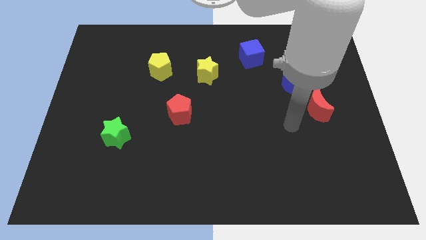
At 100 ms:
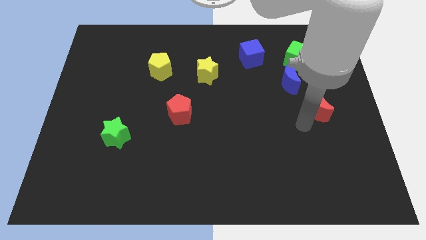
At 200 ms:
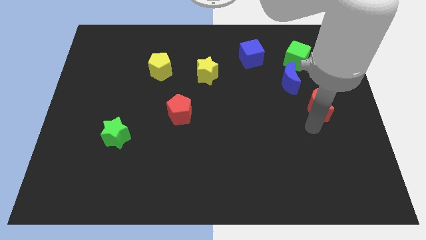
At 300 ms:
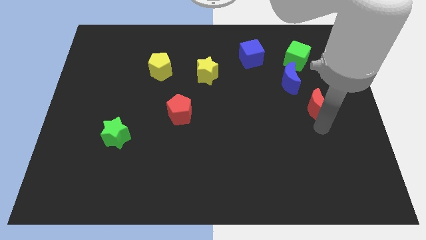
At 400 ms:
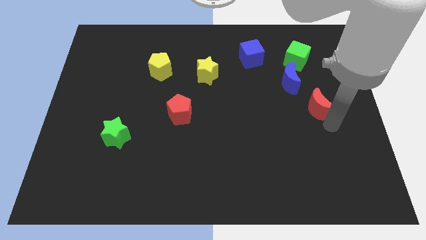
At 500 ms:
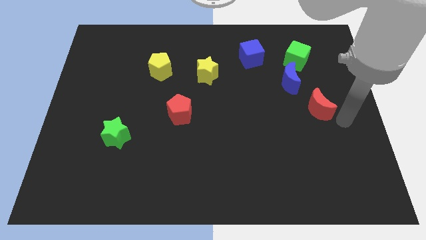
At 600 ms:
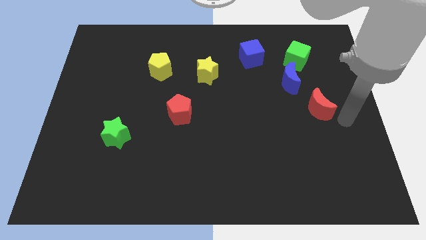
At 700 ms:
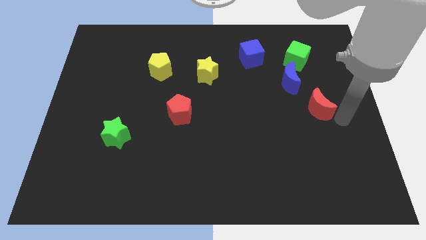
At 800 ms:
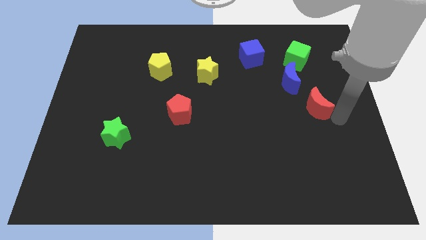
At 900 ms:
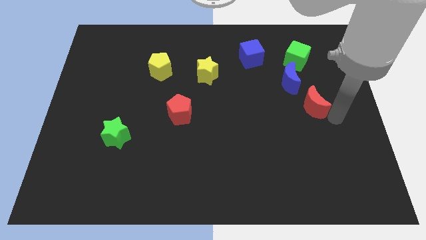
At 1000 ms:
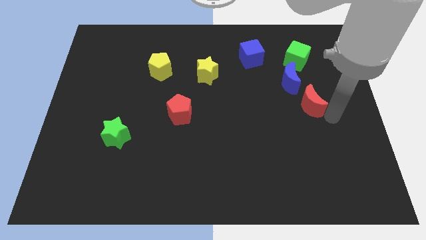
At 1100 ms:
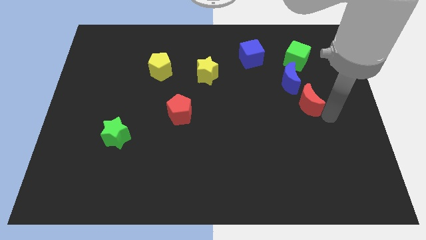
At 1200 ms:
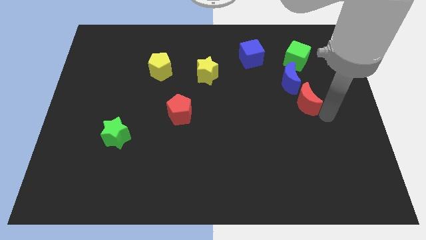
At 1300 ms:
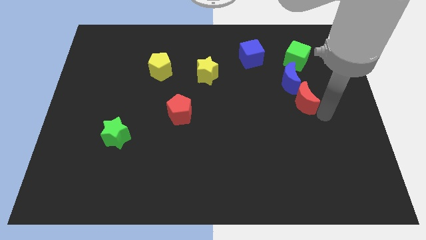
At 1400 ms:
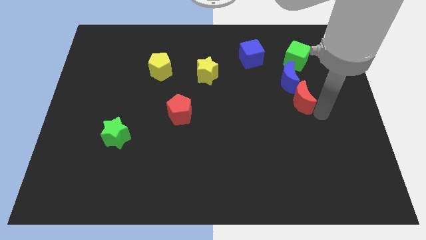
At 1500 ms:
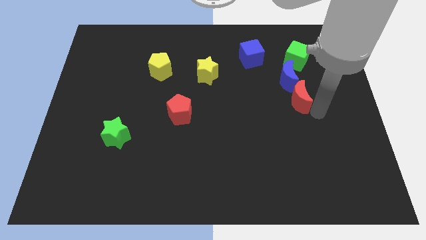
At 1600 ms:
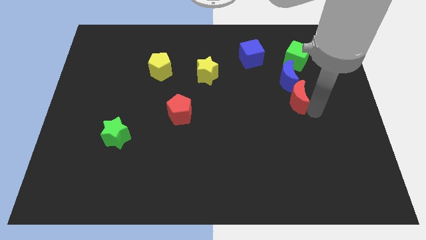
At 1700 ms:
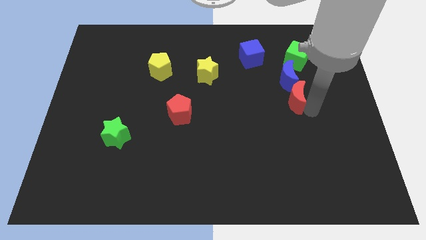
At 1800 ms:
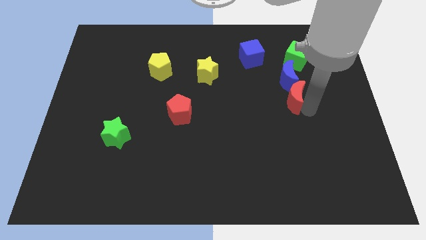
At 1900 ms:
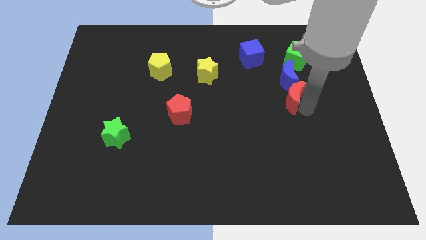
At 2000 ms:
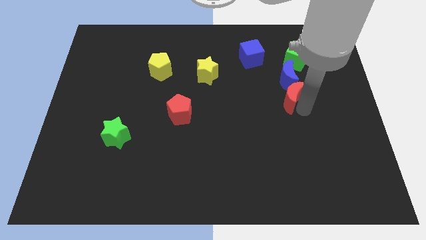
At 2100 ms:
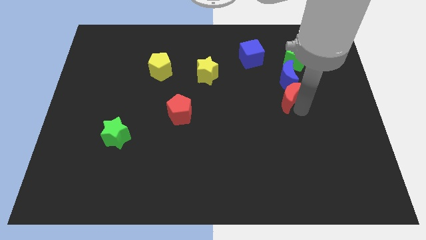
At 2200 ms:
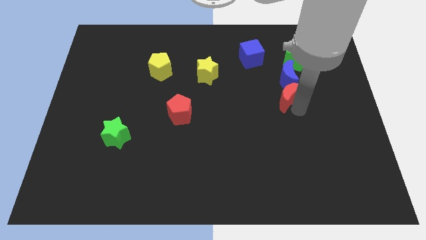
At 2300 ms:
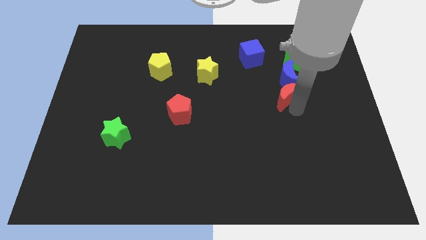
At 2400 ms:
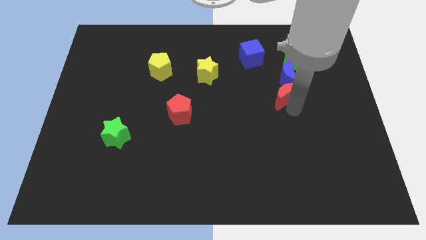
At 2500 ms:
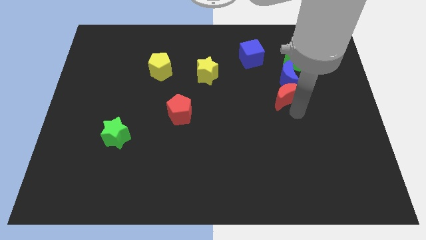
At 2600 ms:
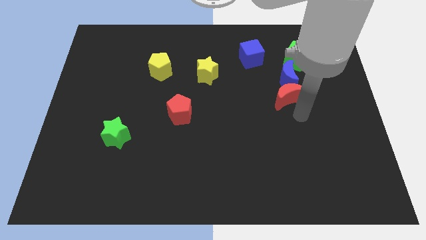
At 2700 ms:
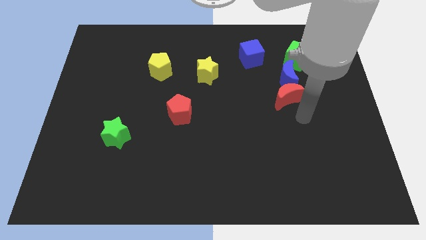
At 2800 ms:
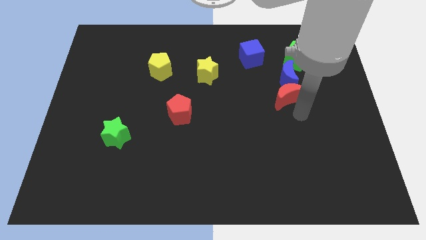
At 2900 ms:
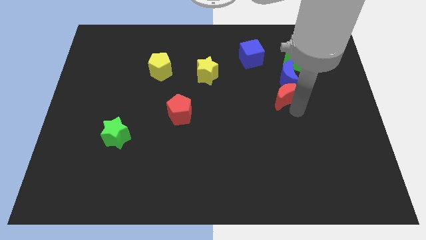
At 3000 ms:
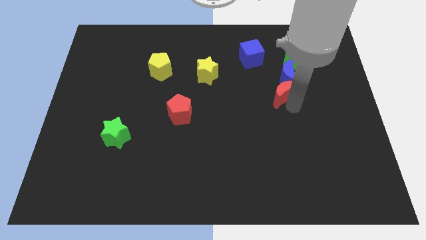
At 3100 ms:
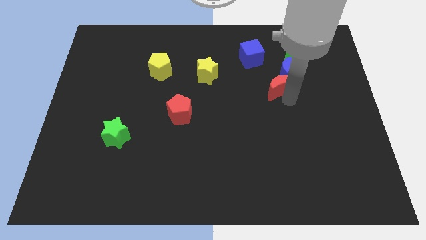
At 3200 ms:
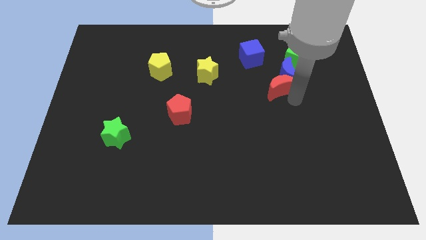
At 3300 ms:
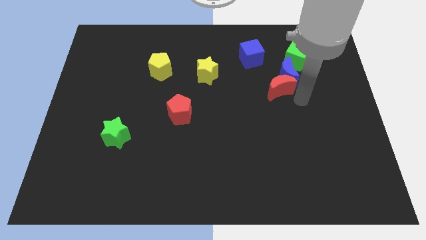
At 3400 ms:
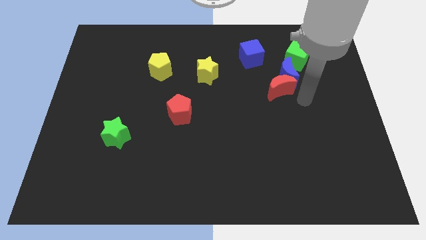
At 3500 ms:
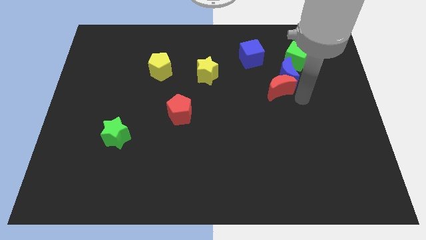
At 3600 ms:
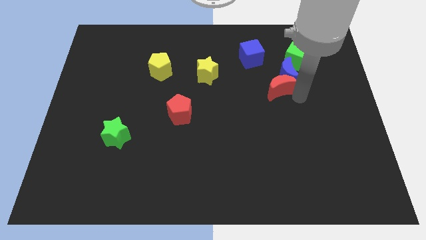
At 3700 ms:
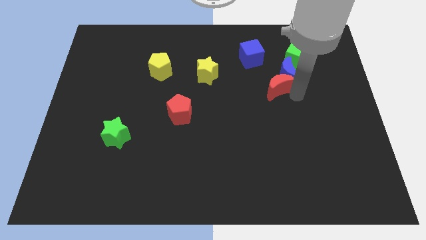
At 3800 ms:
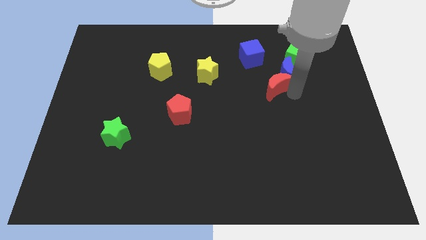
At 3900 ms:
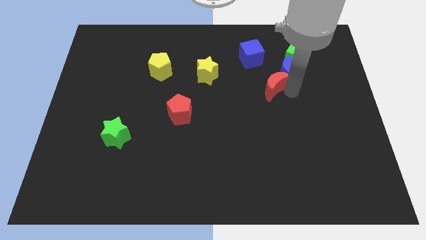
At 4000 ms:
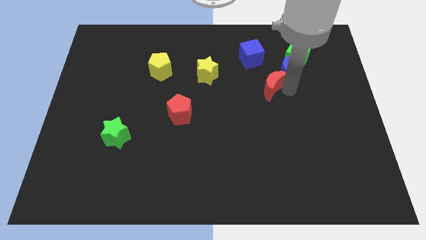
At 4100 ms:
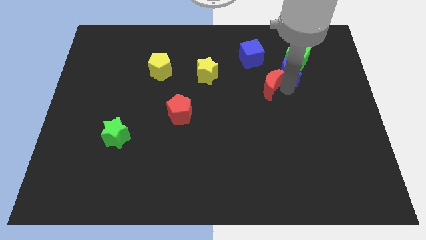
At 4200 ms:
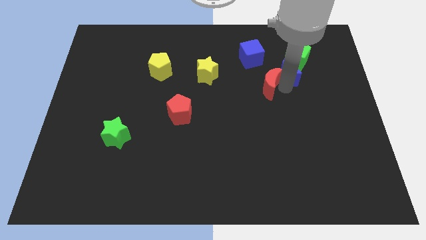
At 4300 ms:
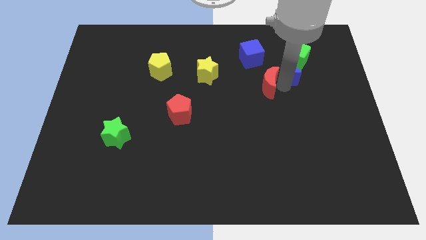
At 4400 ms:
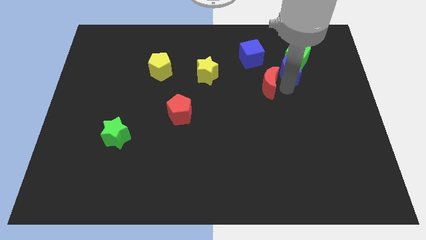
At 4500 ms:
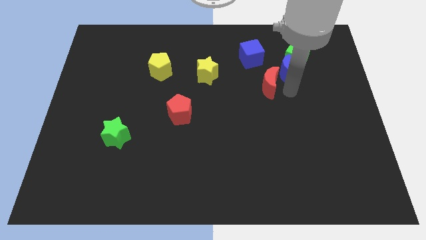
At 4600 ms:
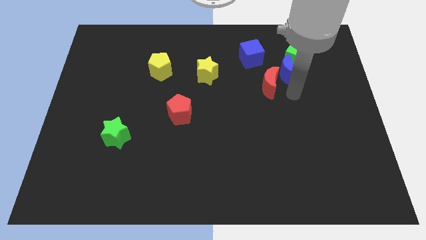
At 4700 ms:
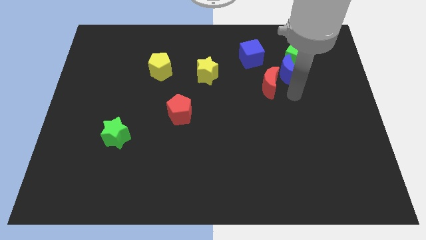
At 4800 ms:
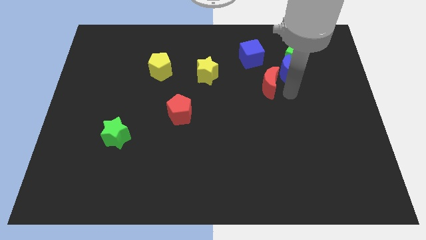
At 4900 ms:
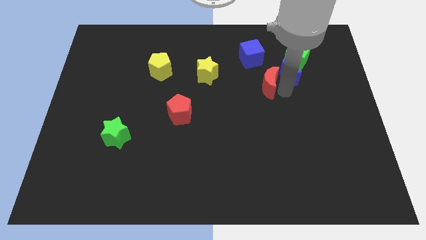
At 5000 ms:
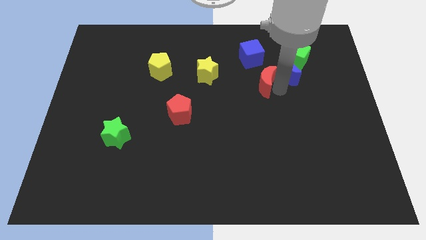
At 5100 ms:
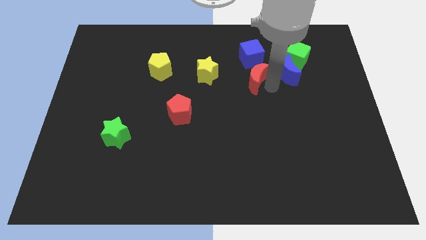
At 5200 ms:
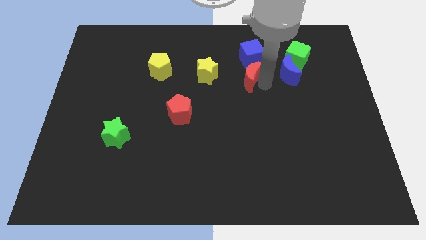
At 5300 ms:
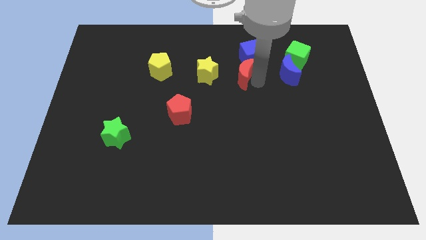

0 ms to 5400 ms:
move the red moon to the bottom left side of the blue cube

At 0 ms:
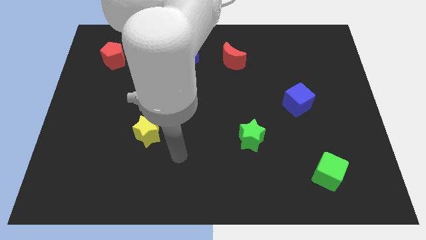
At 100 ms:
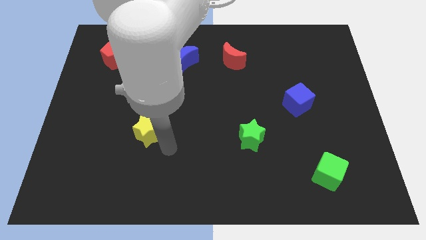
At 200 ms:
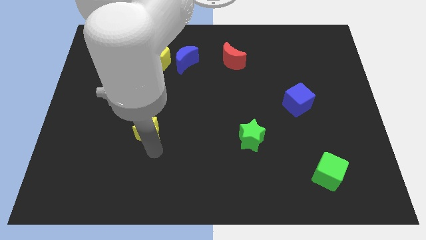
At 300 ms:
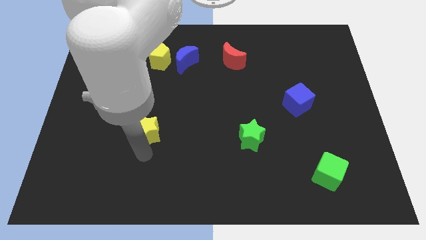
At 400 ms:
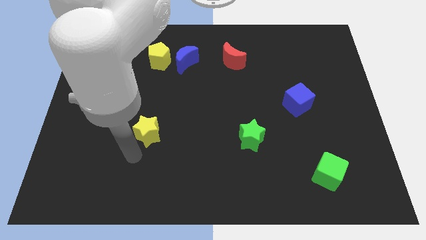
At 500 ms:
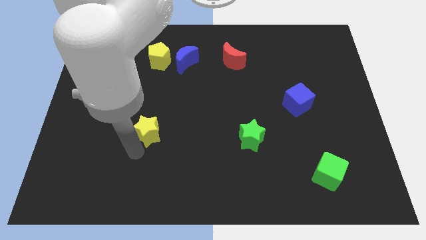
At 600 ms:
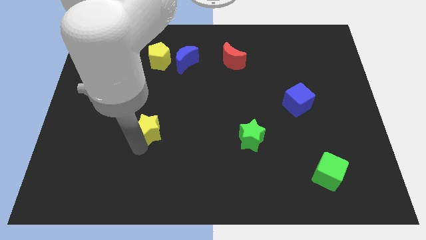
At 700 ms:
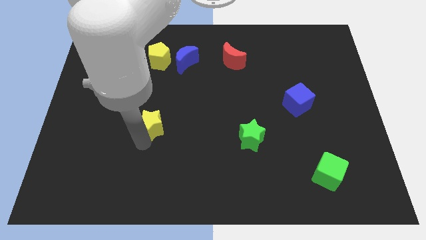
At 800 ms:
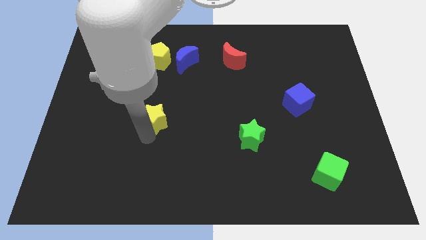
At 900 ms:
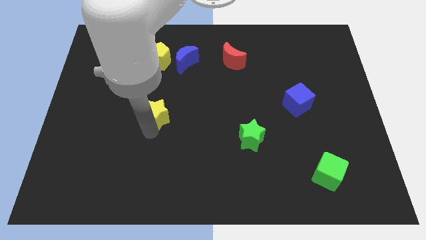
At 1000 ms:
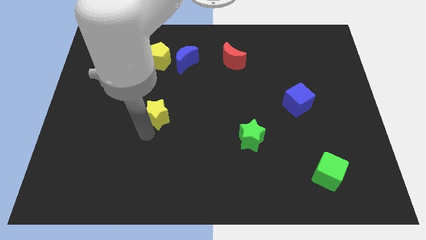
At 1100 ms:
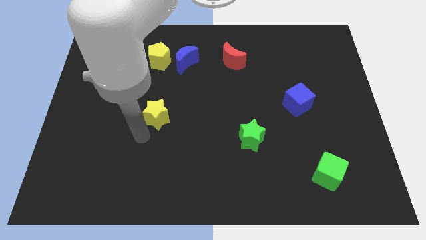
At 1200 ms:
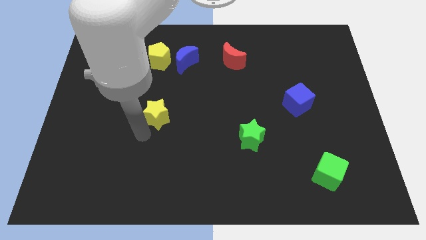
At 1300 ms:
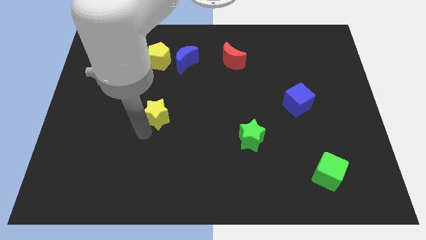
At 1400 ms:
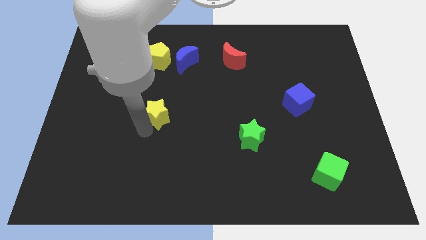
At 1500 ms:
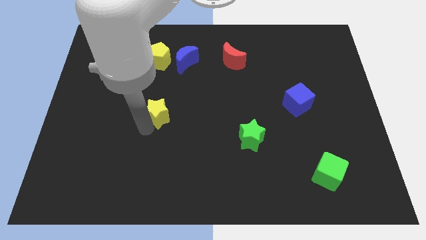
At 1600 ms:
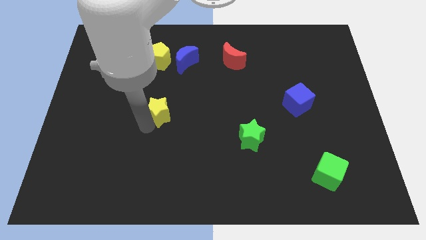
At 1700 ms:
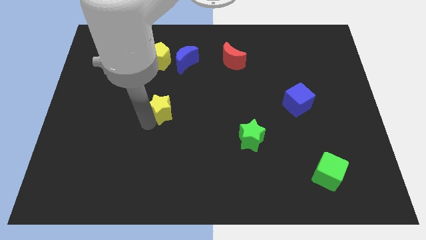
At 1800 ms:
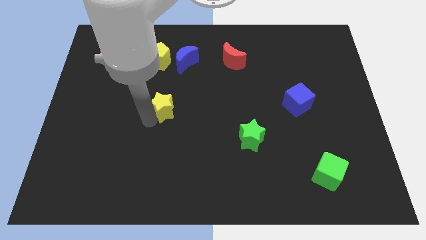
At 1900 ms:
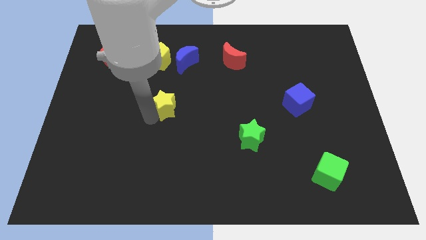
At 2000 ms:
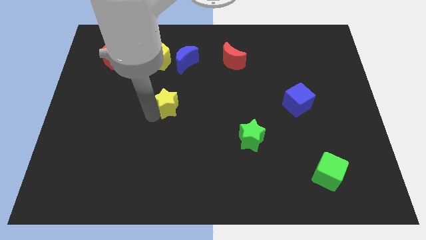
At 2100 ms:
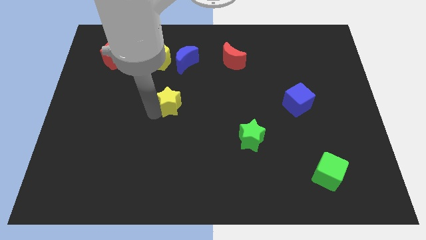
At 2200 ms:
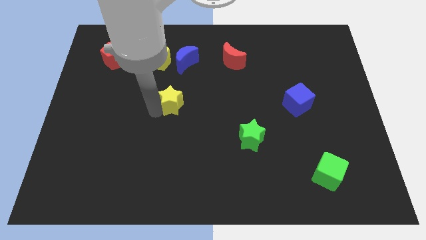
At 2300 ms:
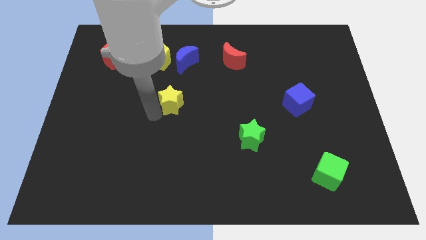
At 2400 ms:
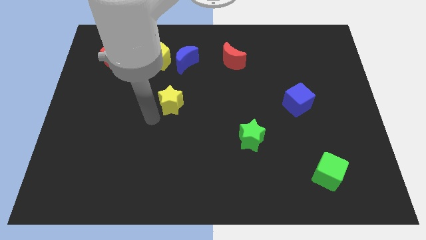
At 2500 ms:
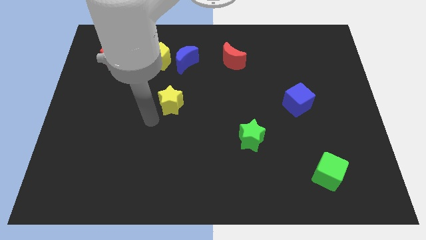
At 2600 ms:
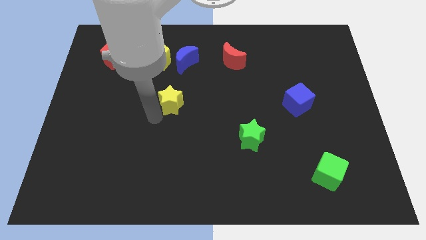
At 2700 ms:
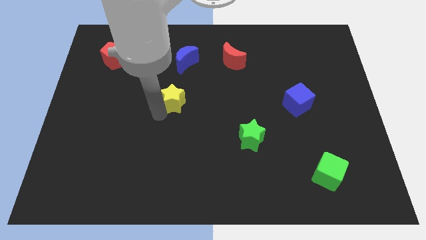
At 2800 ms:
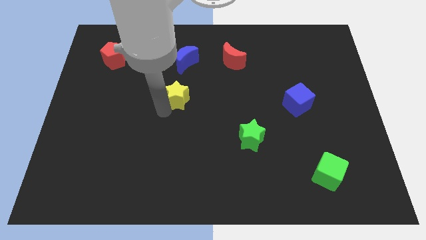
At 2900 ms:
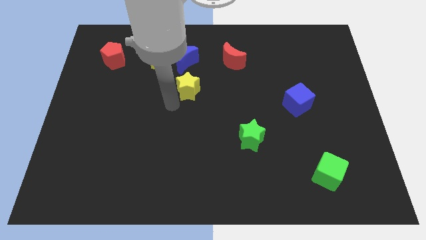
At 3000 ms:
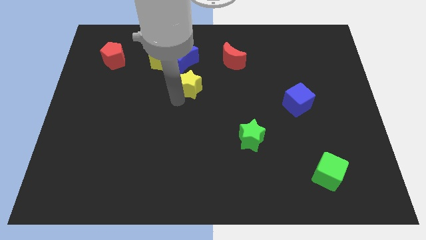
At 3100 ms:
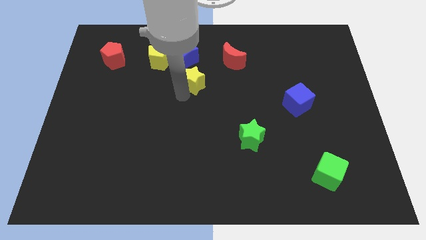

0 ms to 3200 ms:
push the yellow star to the bottom left side of the red moon
